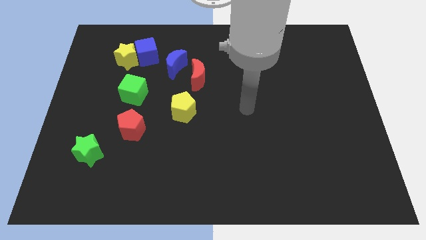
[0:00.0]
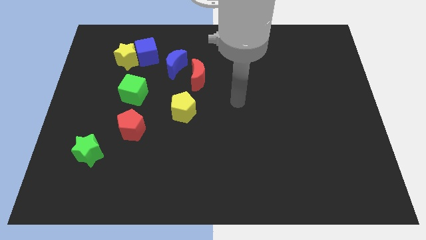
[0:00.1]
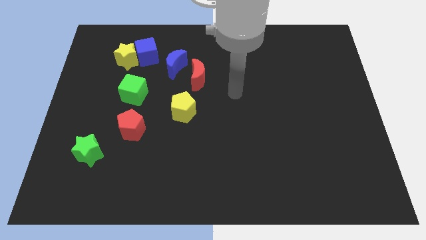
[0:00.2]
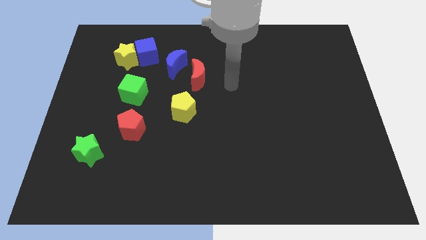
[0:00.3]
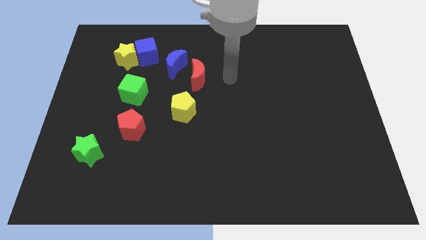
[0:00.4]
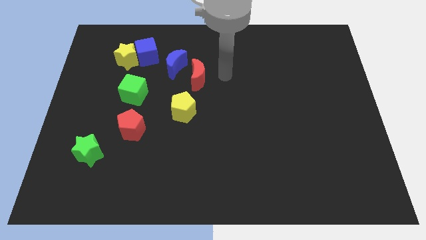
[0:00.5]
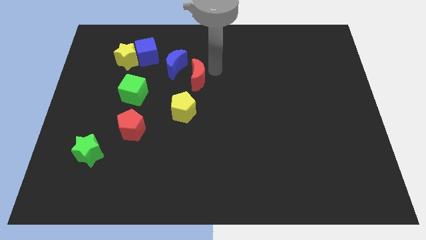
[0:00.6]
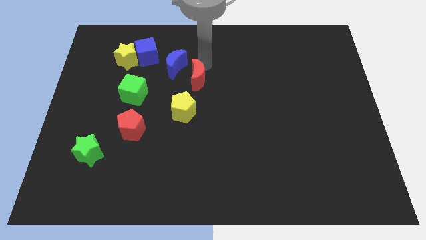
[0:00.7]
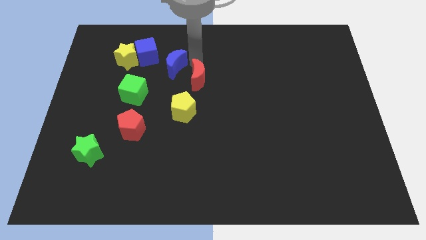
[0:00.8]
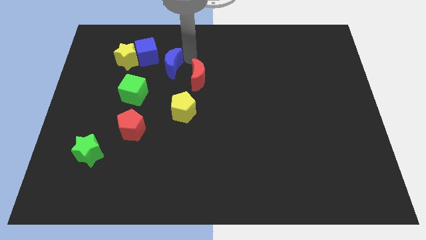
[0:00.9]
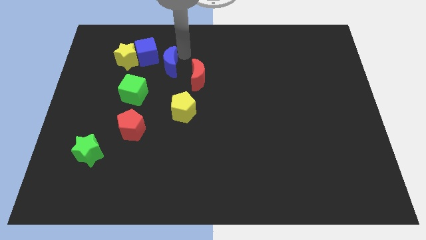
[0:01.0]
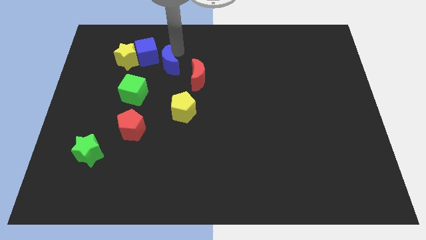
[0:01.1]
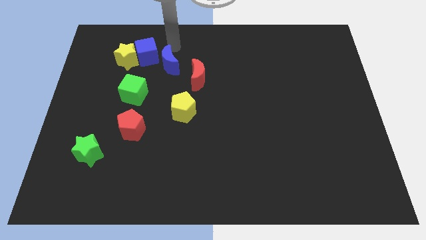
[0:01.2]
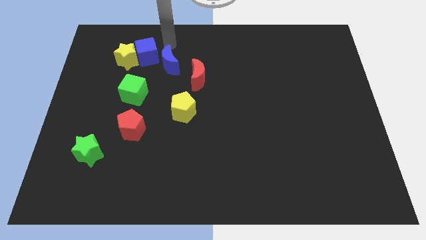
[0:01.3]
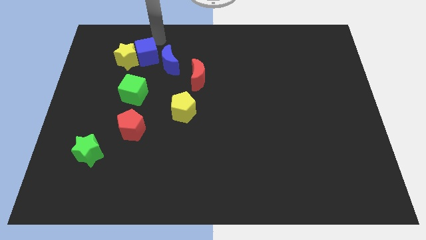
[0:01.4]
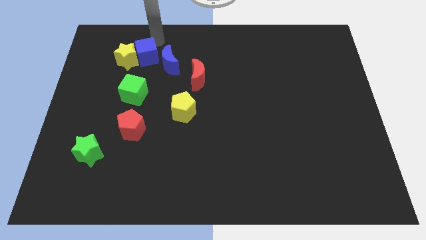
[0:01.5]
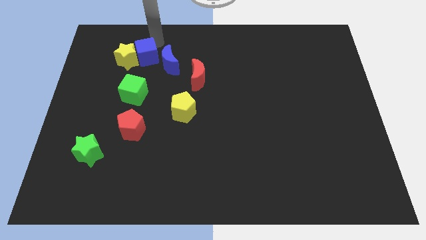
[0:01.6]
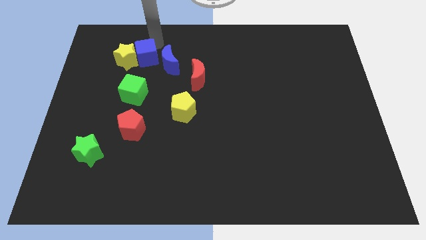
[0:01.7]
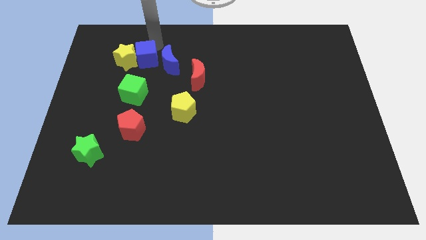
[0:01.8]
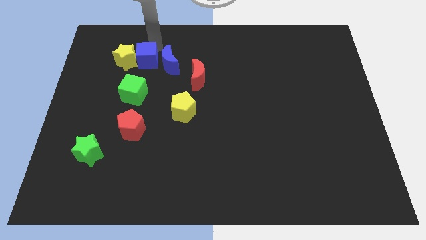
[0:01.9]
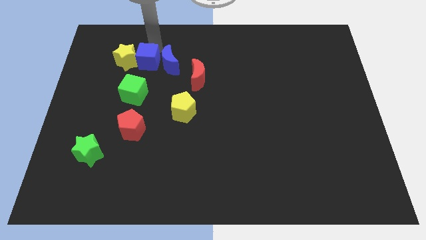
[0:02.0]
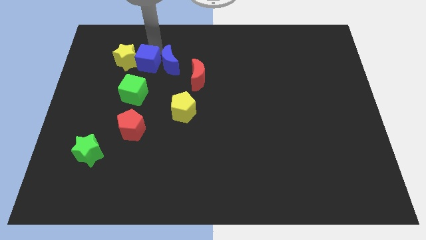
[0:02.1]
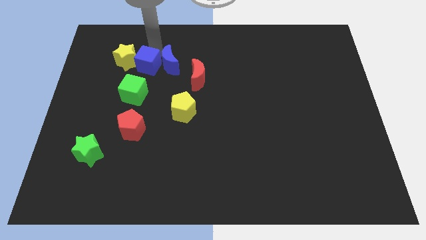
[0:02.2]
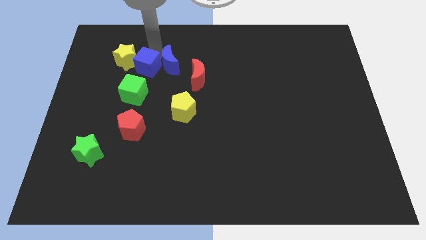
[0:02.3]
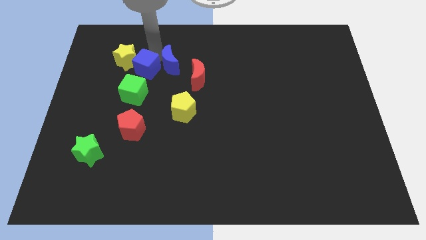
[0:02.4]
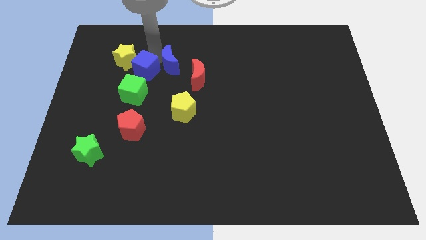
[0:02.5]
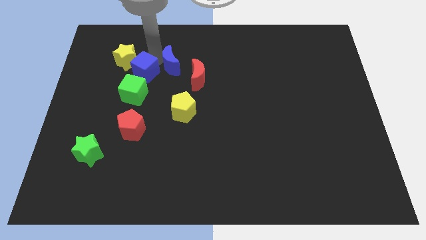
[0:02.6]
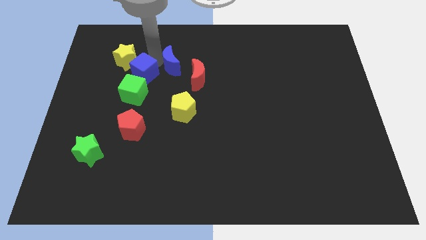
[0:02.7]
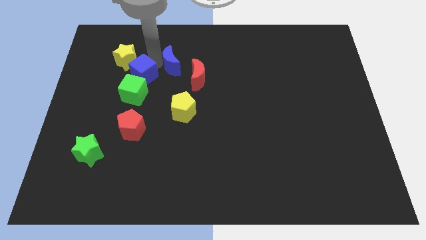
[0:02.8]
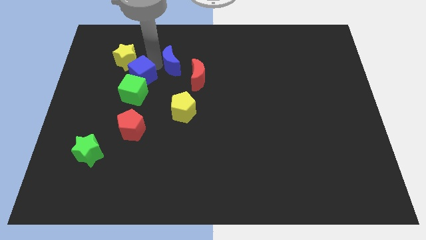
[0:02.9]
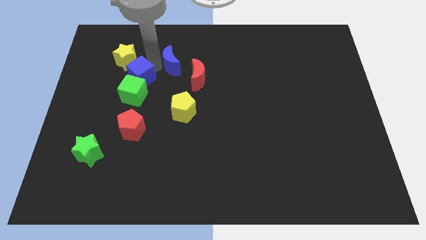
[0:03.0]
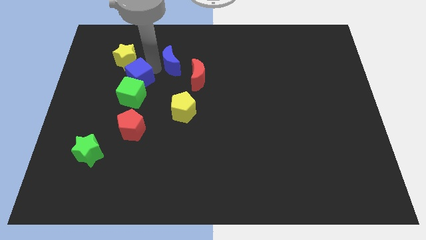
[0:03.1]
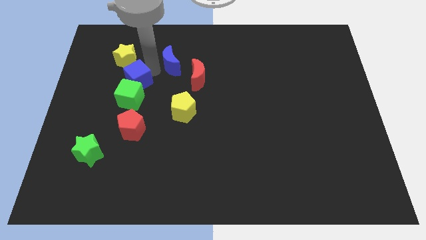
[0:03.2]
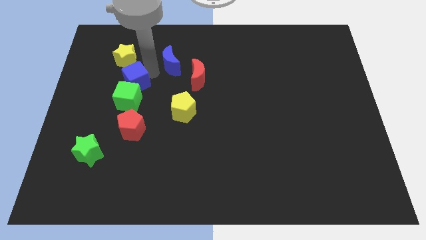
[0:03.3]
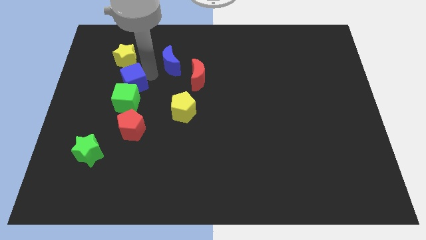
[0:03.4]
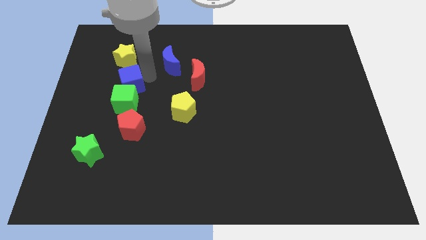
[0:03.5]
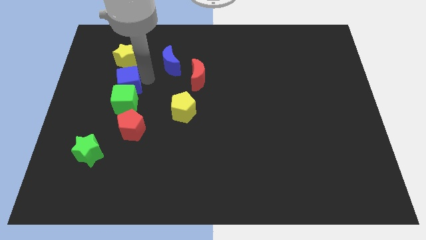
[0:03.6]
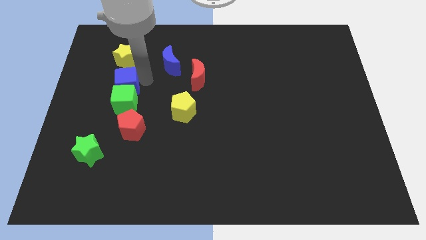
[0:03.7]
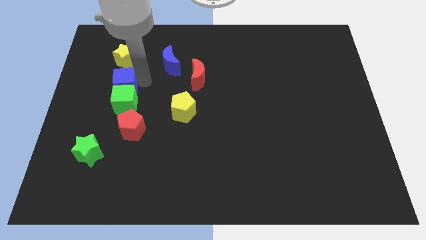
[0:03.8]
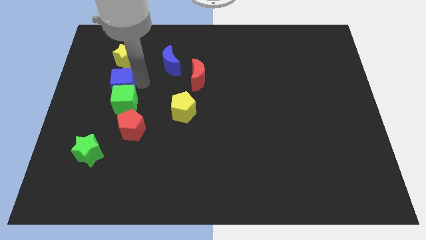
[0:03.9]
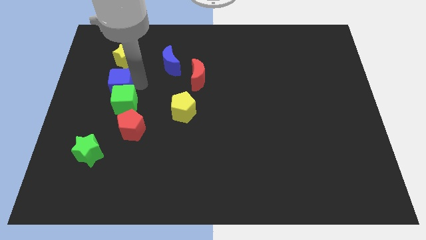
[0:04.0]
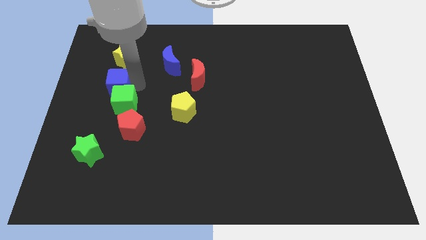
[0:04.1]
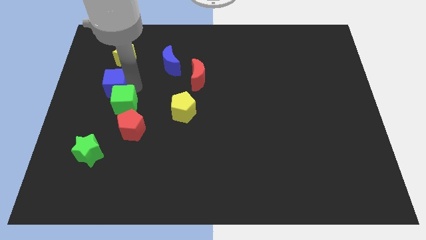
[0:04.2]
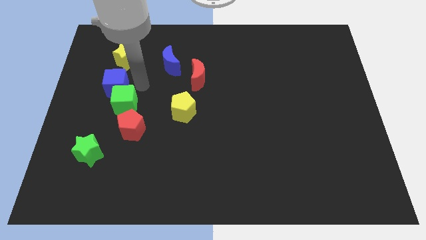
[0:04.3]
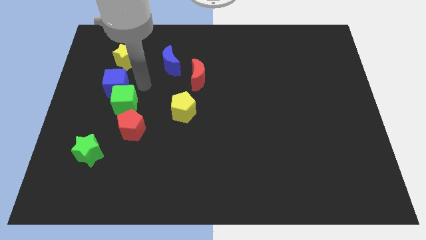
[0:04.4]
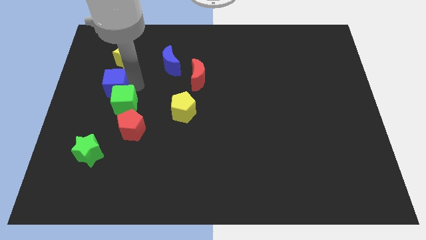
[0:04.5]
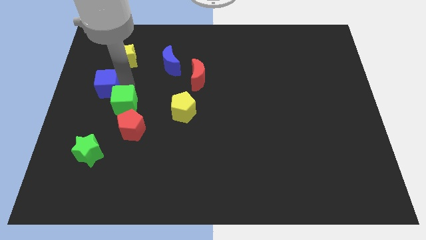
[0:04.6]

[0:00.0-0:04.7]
push the blue cube to the left side of the board

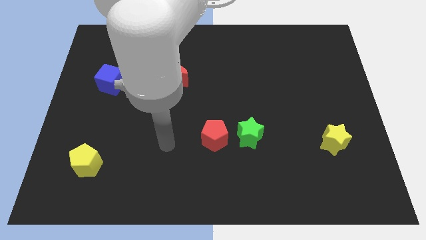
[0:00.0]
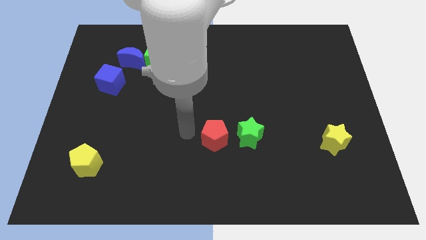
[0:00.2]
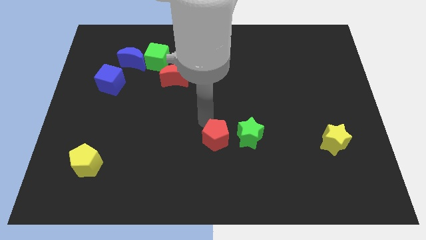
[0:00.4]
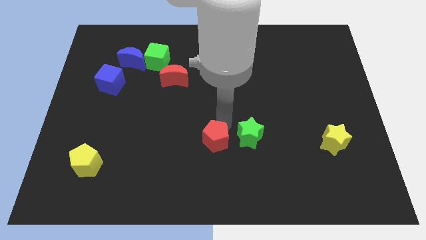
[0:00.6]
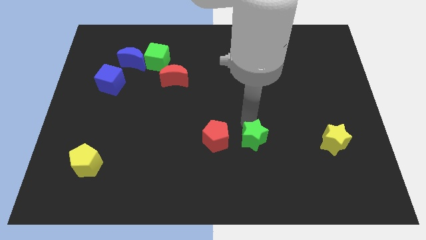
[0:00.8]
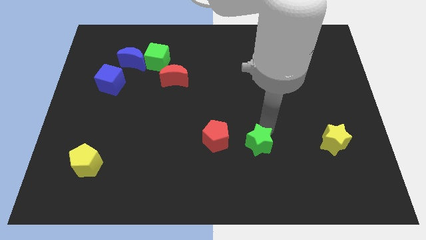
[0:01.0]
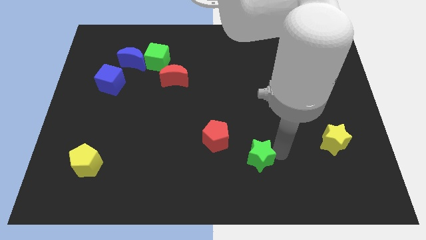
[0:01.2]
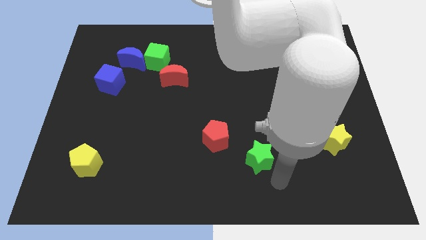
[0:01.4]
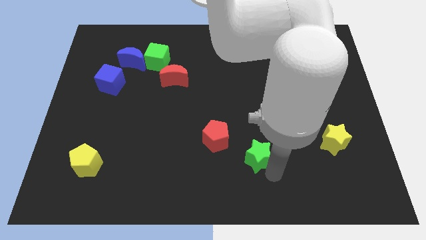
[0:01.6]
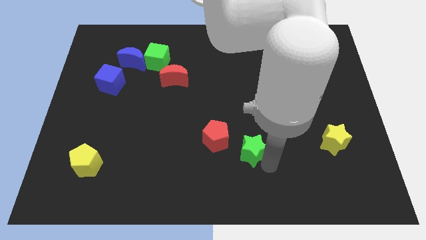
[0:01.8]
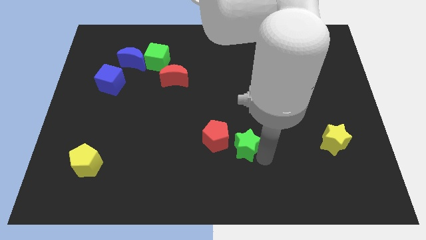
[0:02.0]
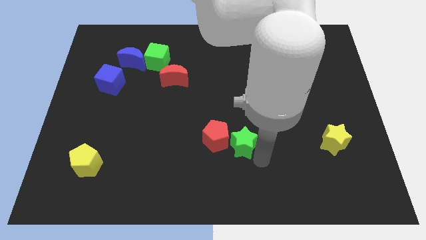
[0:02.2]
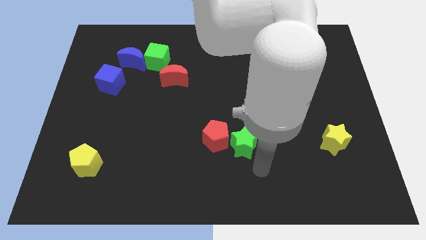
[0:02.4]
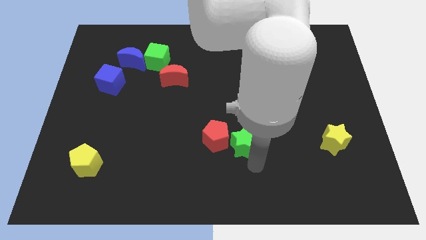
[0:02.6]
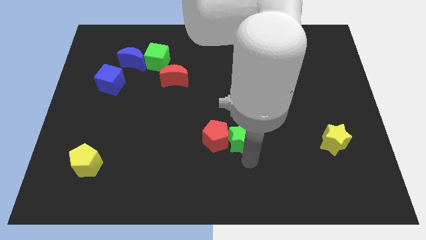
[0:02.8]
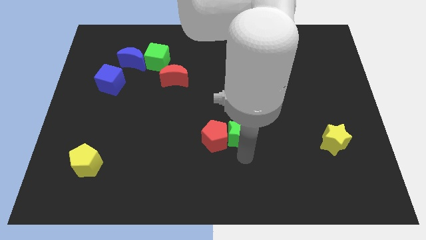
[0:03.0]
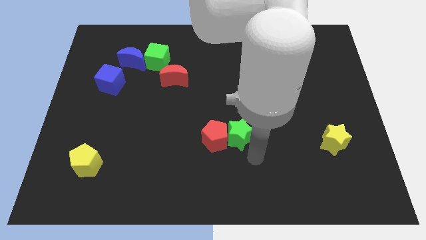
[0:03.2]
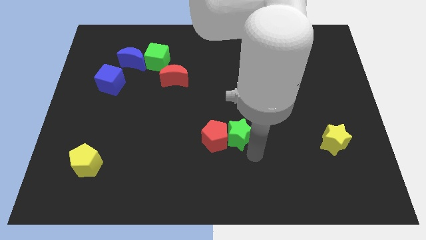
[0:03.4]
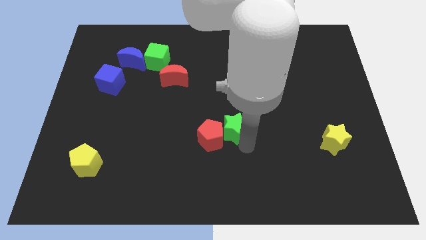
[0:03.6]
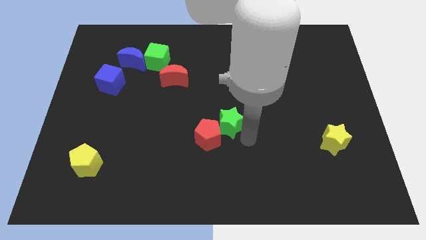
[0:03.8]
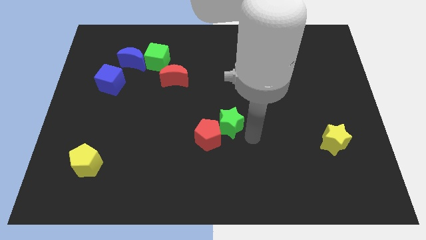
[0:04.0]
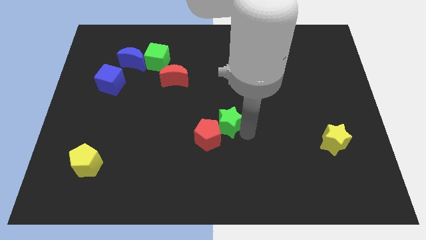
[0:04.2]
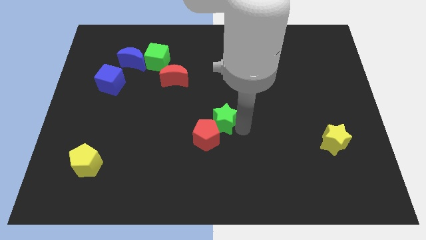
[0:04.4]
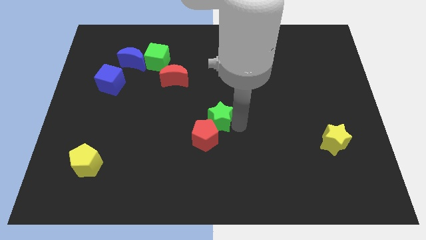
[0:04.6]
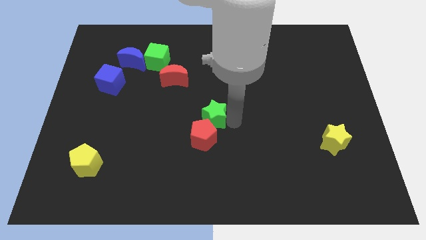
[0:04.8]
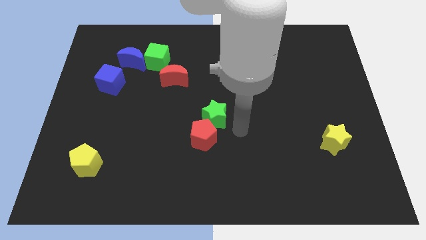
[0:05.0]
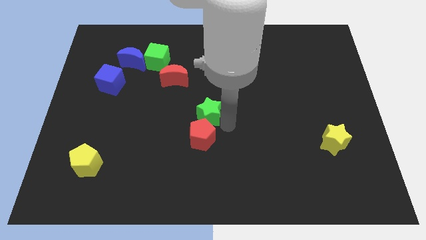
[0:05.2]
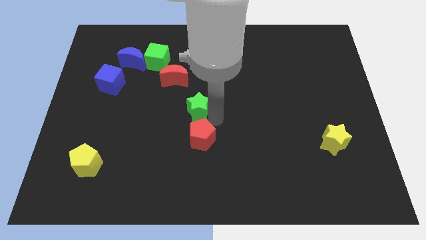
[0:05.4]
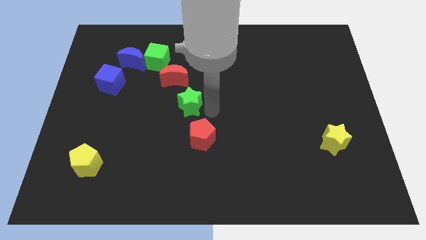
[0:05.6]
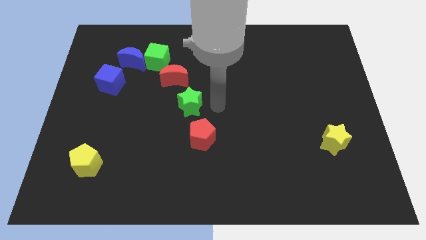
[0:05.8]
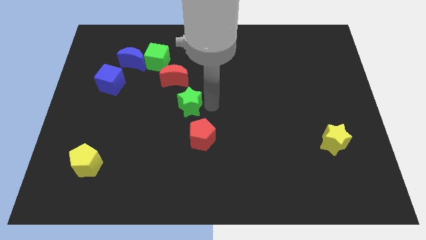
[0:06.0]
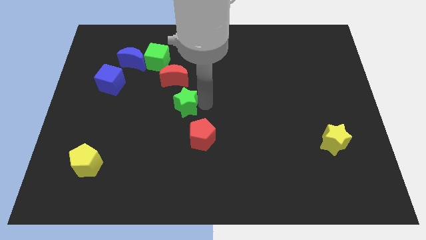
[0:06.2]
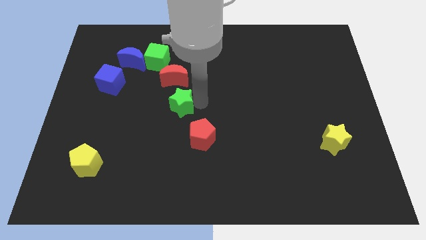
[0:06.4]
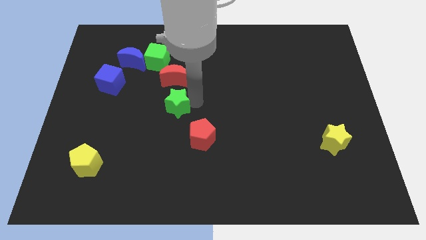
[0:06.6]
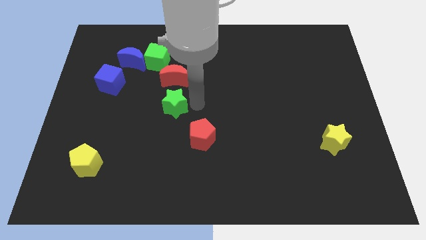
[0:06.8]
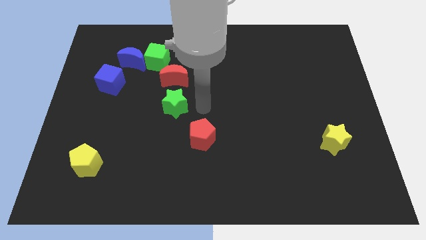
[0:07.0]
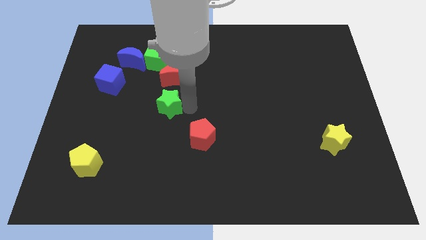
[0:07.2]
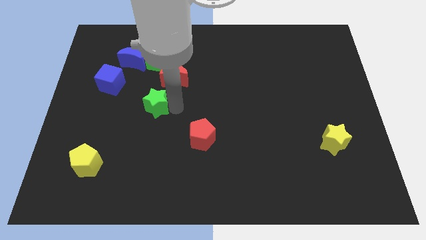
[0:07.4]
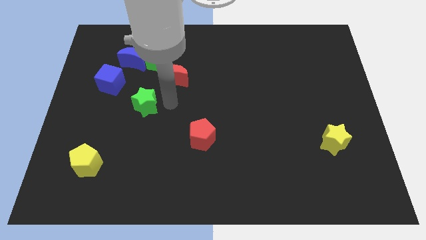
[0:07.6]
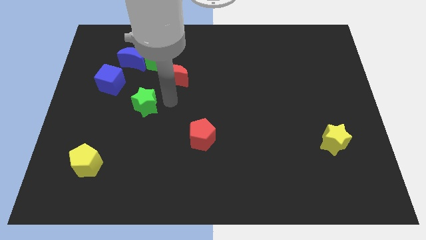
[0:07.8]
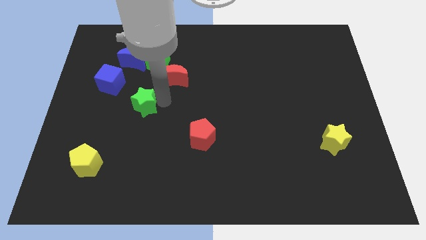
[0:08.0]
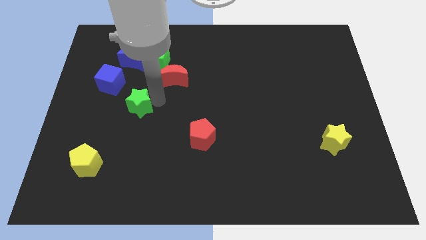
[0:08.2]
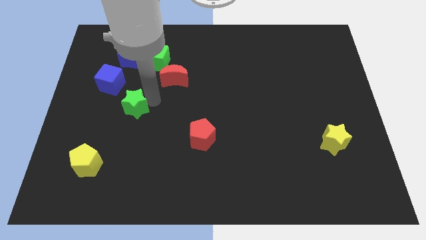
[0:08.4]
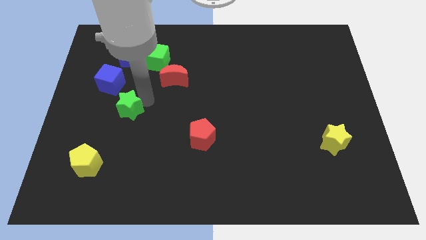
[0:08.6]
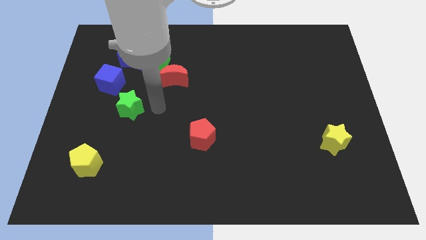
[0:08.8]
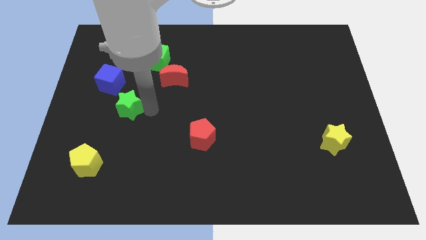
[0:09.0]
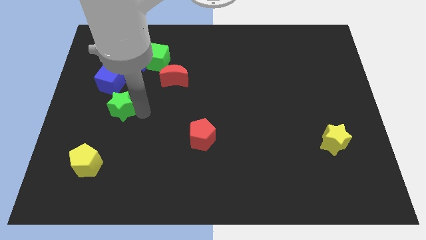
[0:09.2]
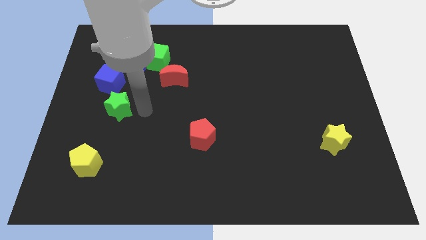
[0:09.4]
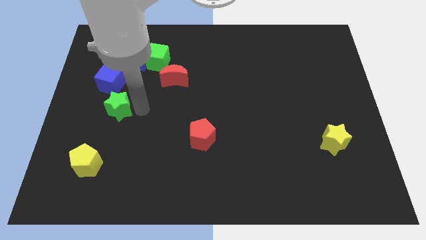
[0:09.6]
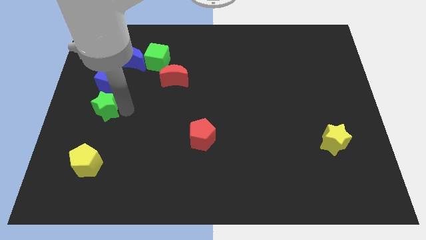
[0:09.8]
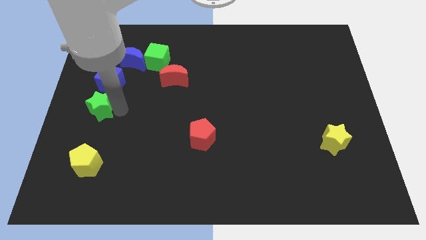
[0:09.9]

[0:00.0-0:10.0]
push the green star to the left side of the board
